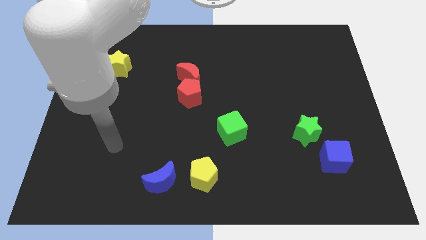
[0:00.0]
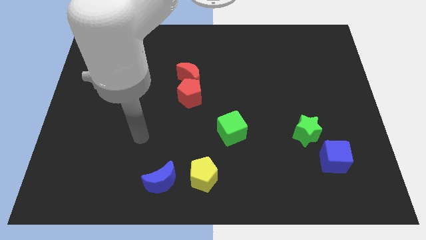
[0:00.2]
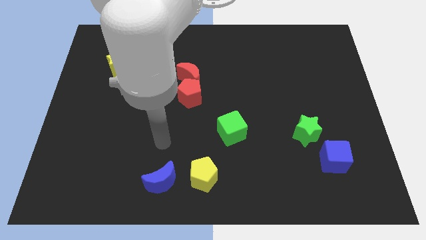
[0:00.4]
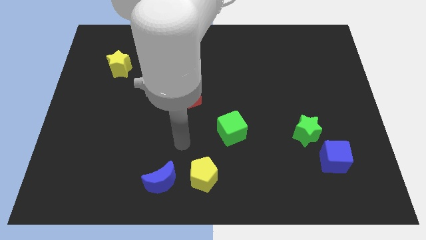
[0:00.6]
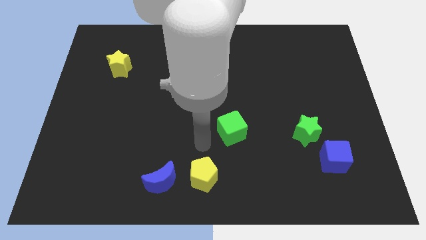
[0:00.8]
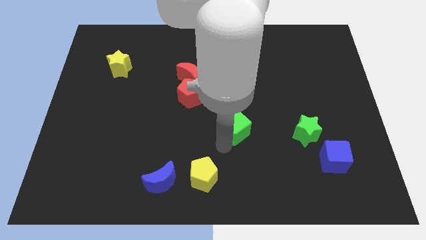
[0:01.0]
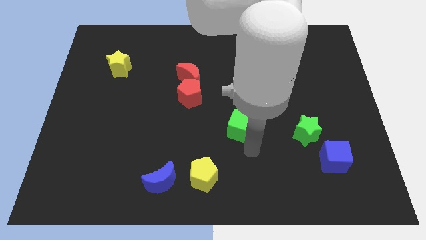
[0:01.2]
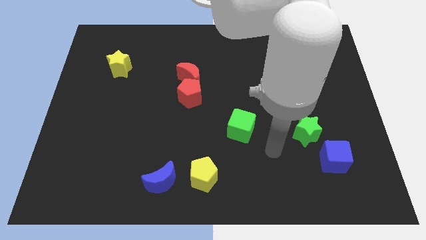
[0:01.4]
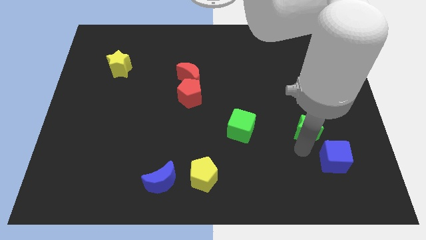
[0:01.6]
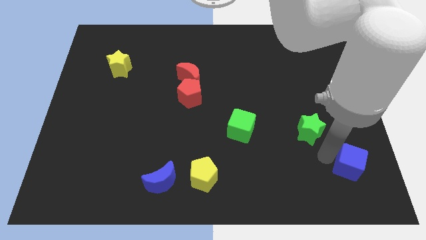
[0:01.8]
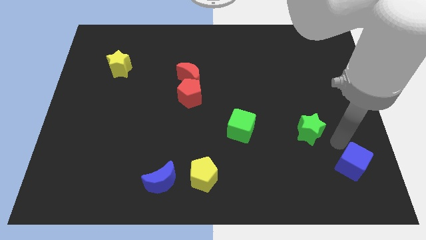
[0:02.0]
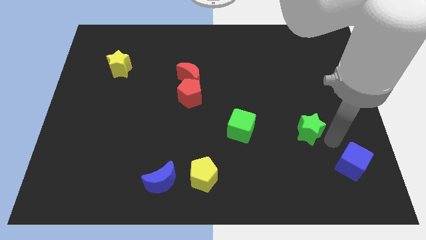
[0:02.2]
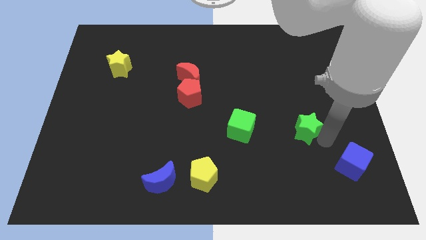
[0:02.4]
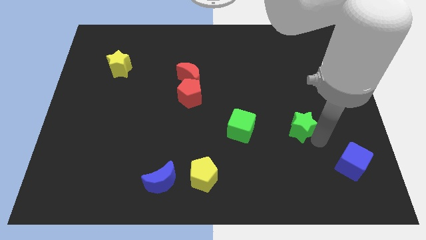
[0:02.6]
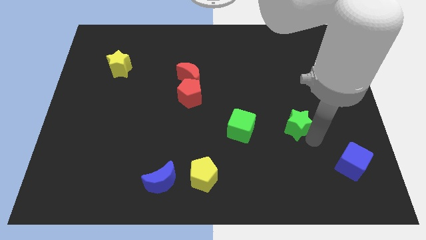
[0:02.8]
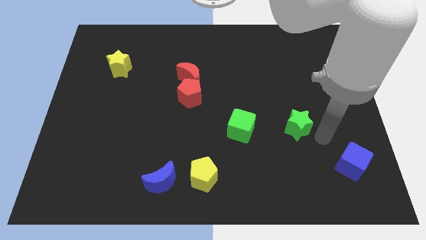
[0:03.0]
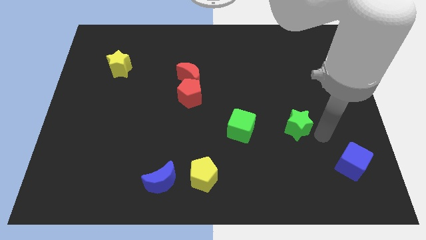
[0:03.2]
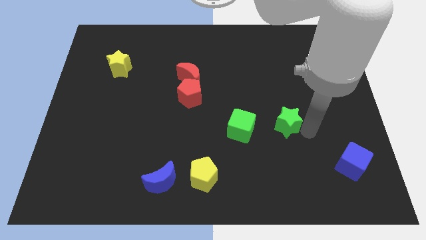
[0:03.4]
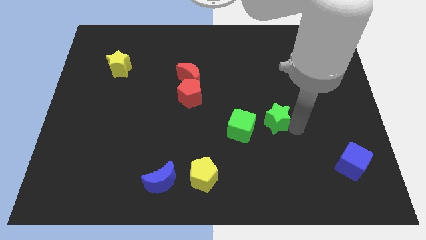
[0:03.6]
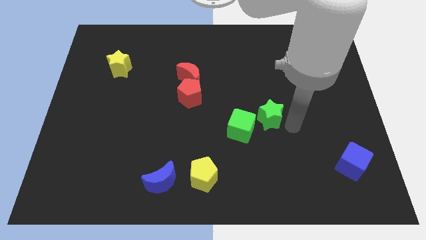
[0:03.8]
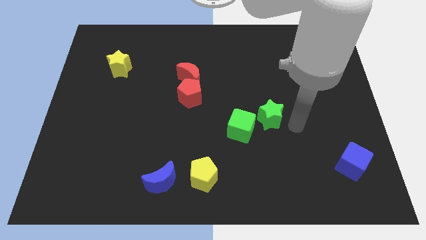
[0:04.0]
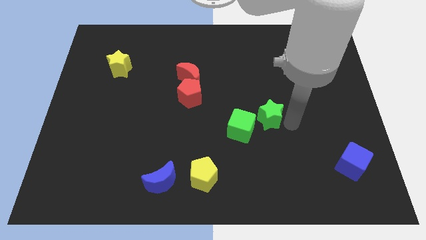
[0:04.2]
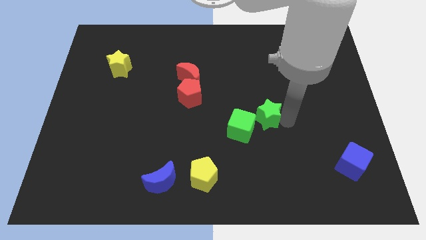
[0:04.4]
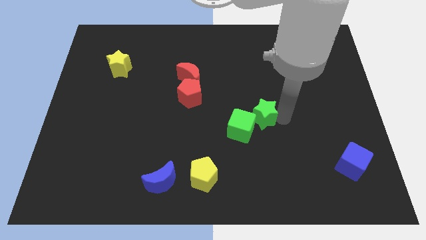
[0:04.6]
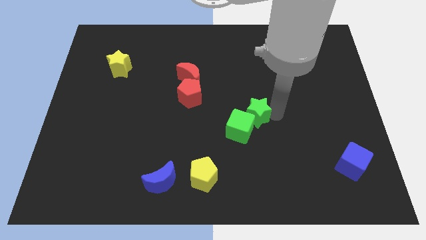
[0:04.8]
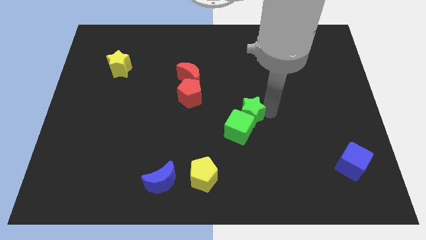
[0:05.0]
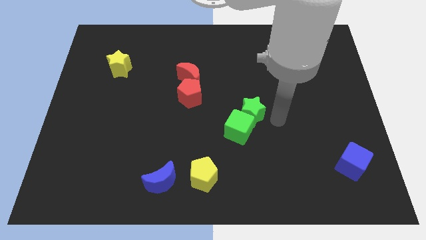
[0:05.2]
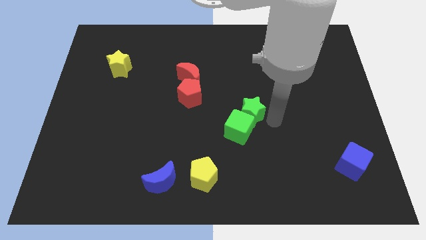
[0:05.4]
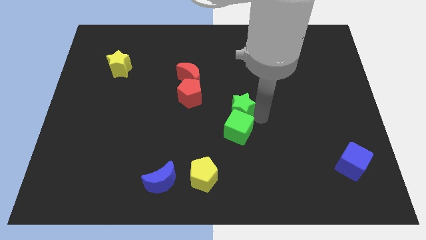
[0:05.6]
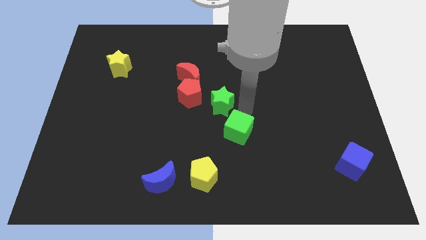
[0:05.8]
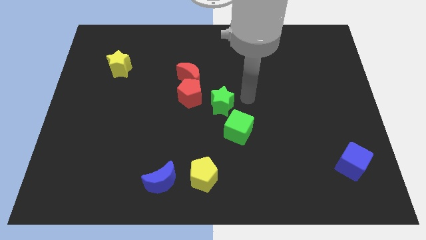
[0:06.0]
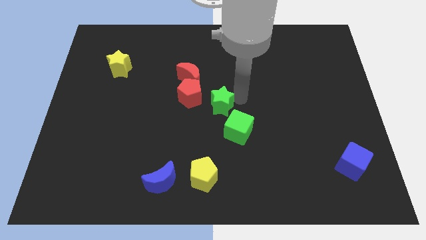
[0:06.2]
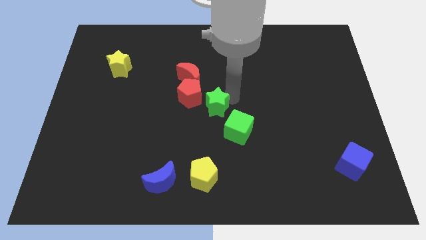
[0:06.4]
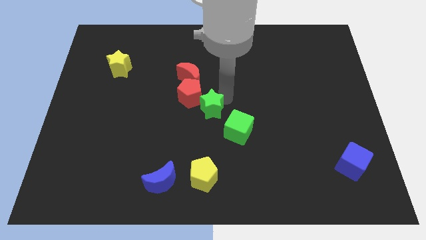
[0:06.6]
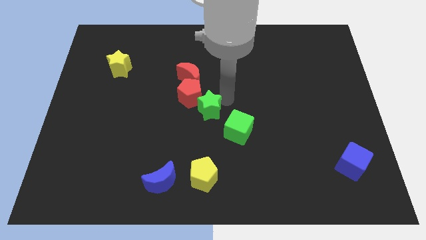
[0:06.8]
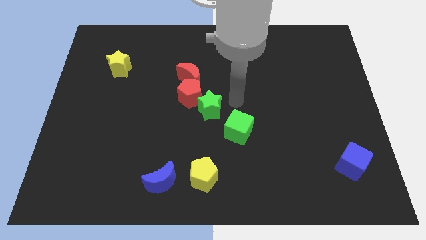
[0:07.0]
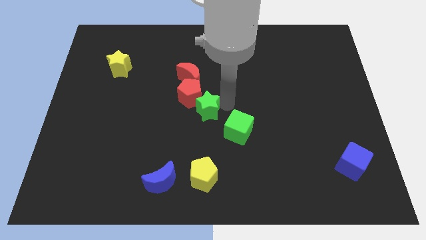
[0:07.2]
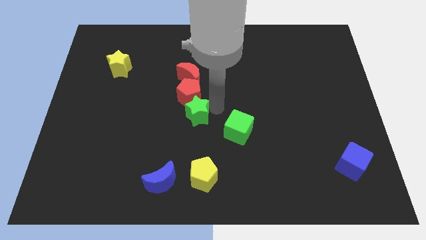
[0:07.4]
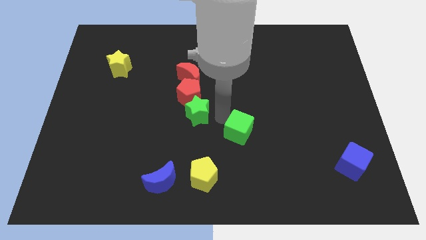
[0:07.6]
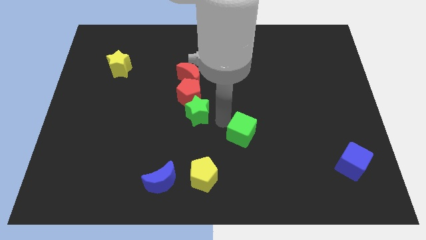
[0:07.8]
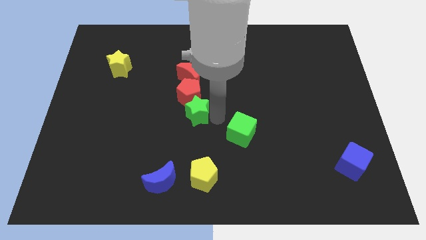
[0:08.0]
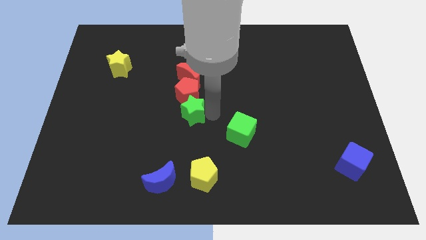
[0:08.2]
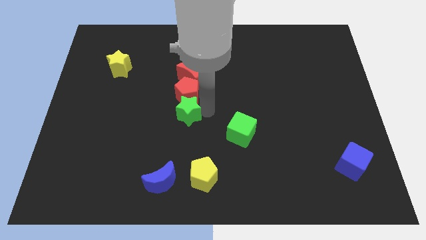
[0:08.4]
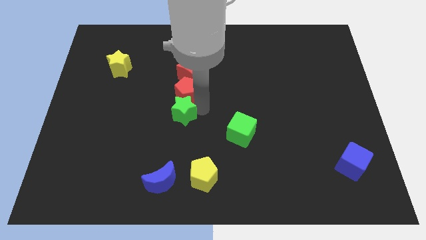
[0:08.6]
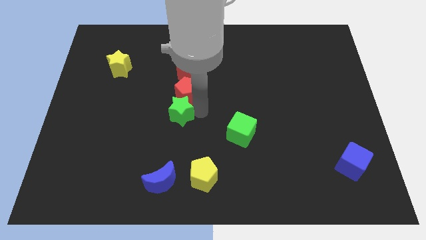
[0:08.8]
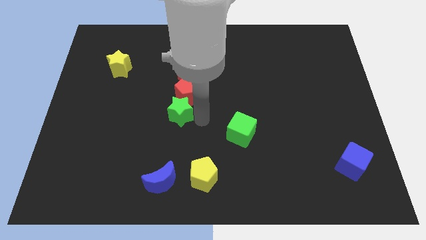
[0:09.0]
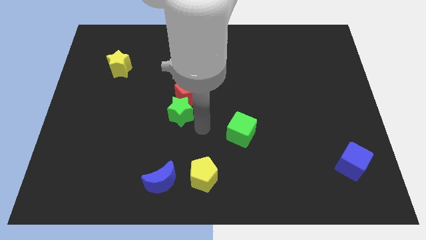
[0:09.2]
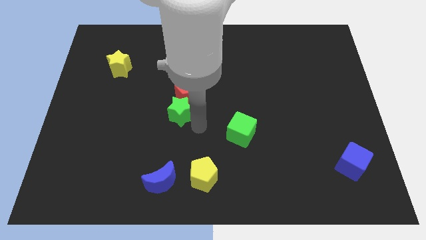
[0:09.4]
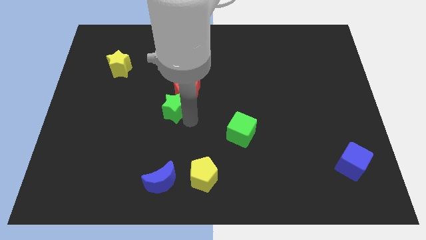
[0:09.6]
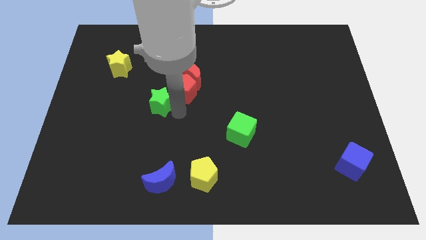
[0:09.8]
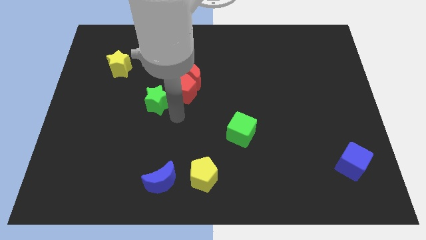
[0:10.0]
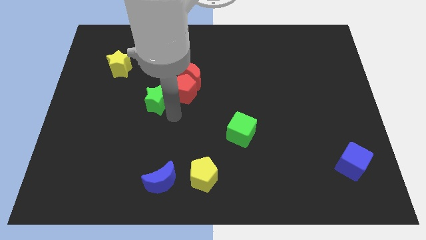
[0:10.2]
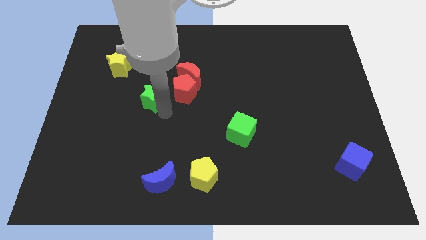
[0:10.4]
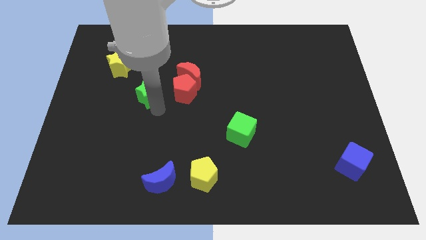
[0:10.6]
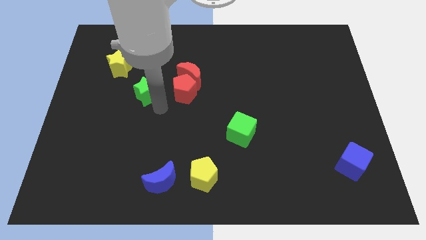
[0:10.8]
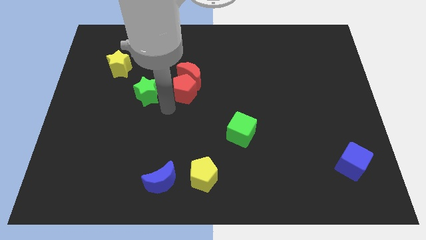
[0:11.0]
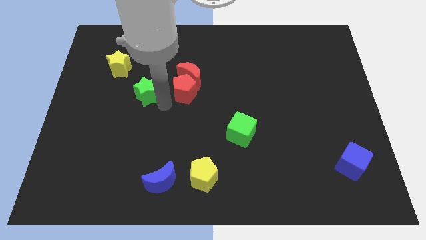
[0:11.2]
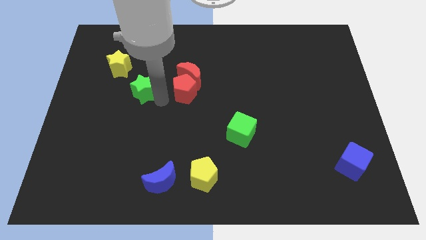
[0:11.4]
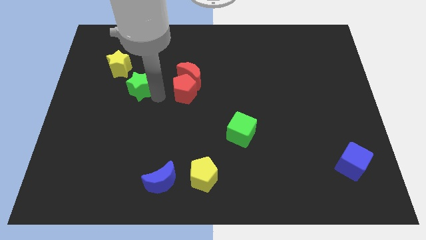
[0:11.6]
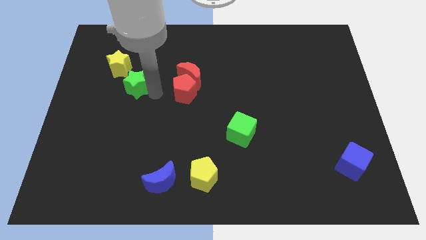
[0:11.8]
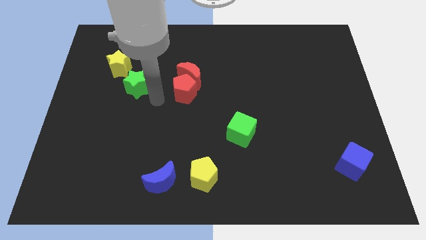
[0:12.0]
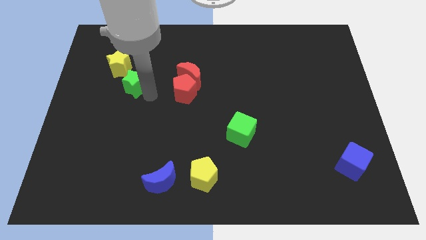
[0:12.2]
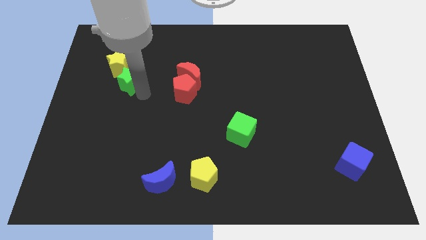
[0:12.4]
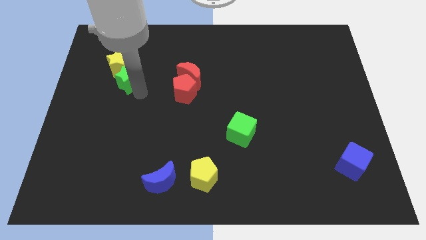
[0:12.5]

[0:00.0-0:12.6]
put the green star next to the yellow star

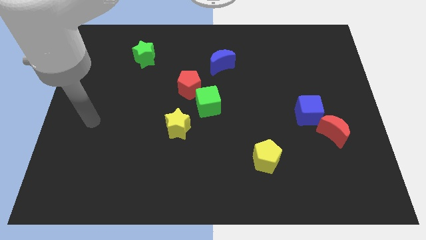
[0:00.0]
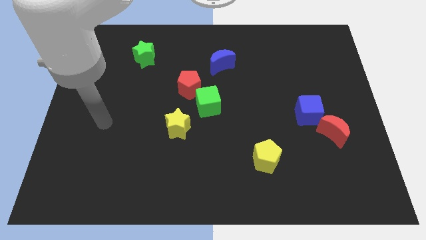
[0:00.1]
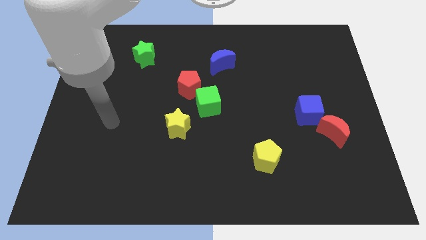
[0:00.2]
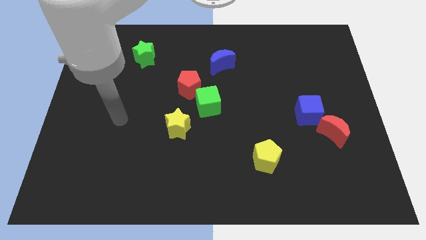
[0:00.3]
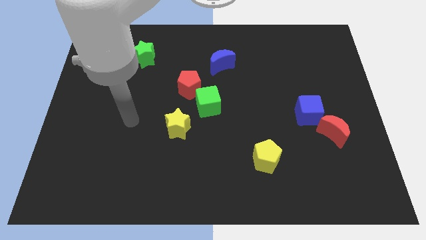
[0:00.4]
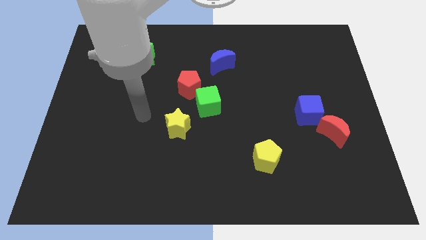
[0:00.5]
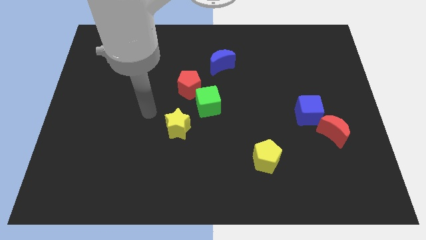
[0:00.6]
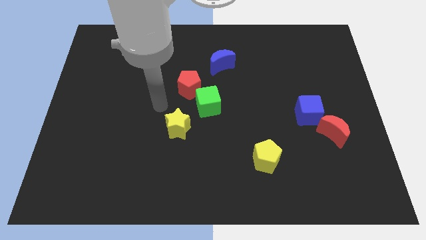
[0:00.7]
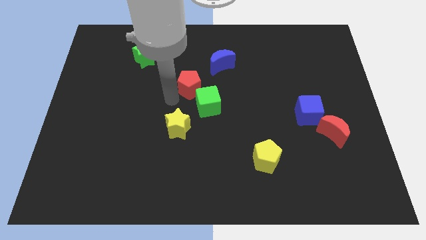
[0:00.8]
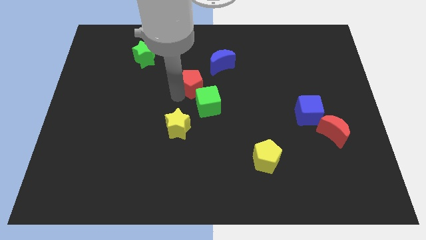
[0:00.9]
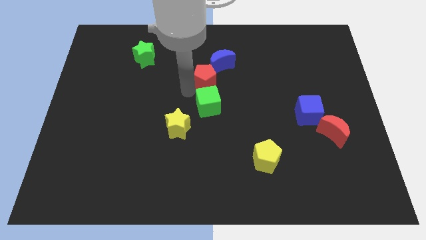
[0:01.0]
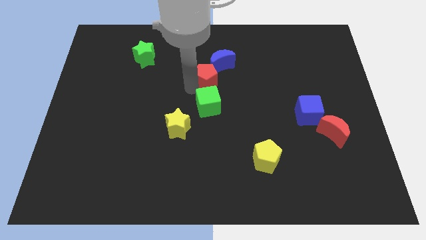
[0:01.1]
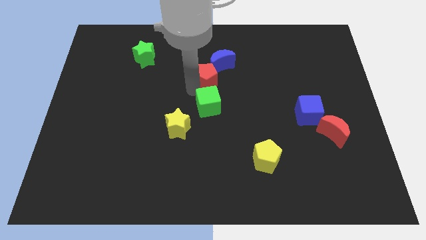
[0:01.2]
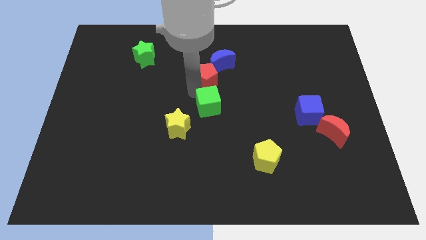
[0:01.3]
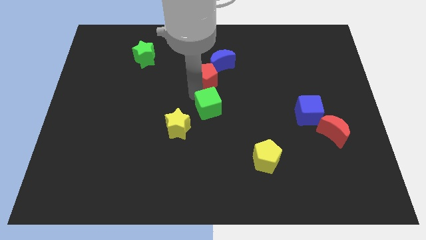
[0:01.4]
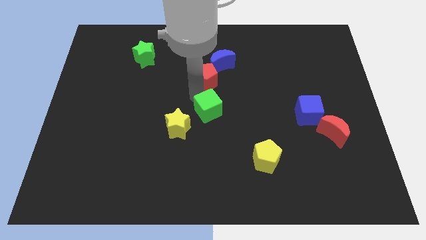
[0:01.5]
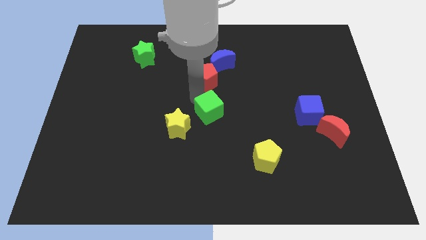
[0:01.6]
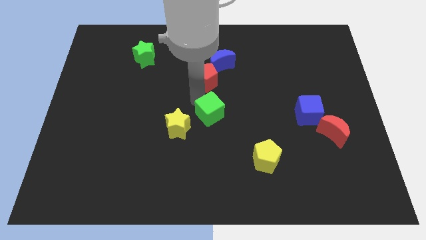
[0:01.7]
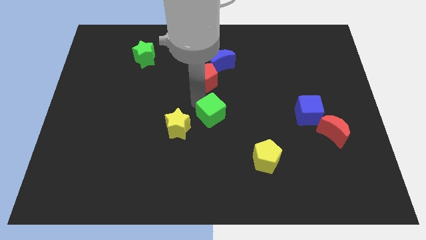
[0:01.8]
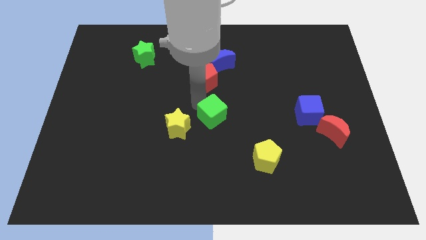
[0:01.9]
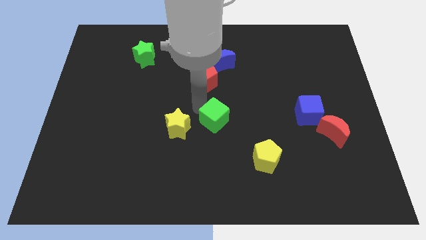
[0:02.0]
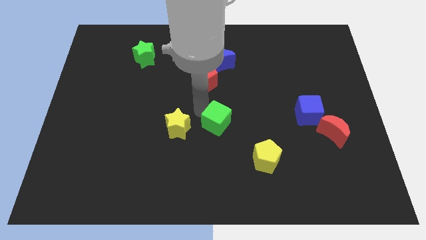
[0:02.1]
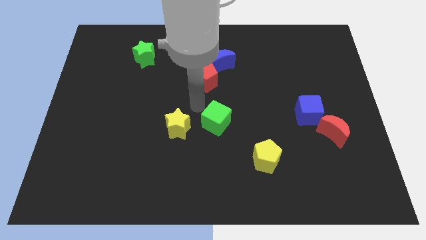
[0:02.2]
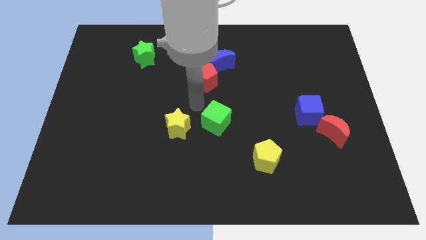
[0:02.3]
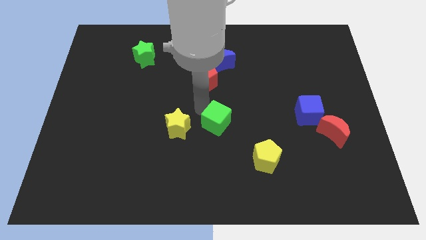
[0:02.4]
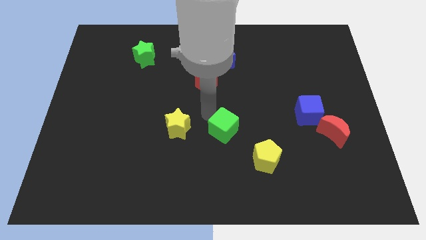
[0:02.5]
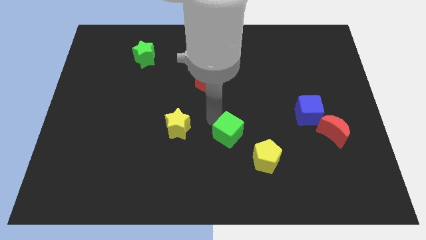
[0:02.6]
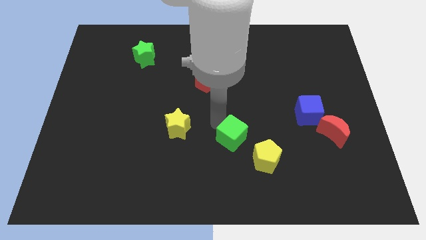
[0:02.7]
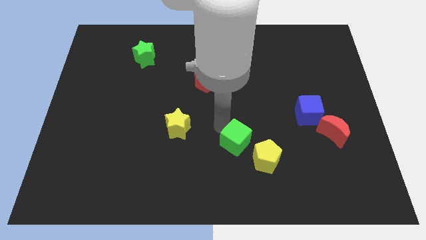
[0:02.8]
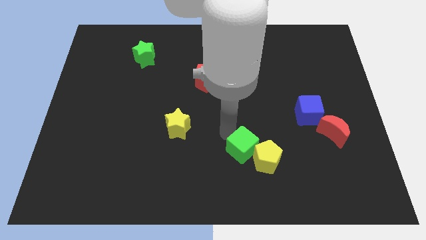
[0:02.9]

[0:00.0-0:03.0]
push the green cube close to the yellow pentagon
